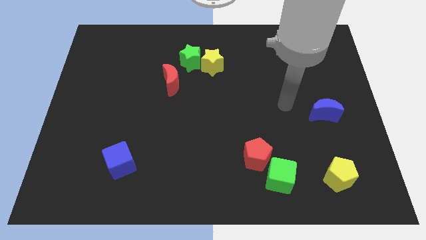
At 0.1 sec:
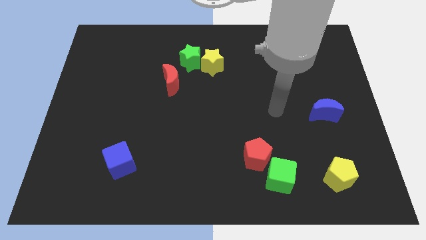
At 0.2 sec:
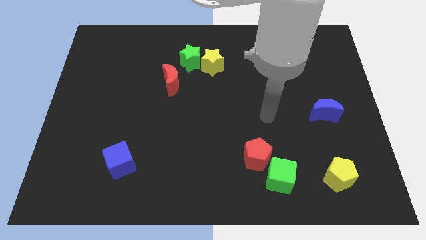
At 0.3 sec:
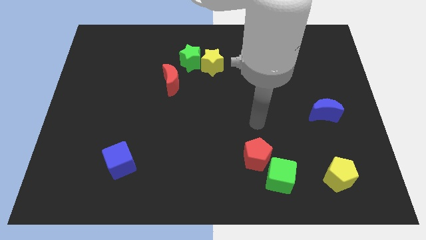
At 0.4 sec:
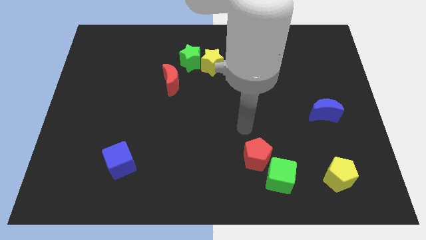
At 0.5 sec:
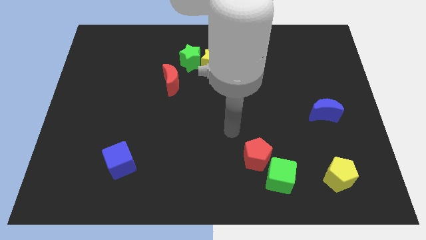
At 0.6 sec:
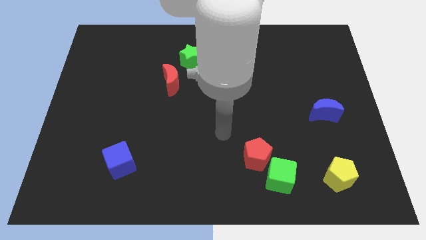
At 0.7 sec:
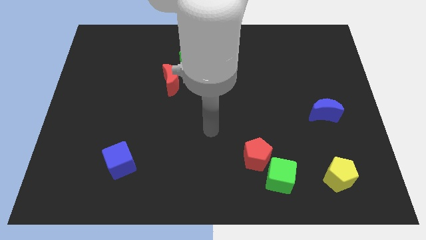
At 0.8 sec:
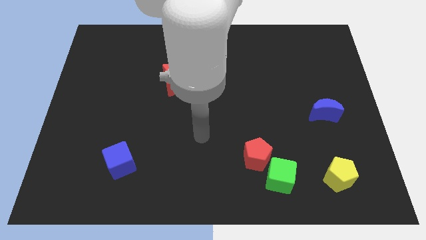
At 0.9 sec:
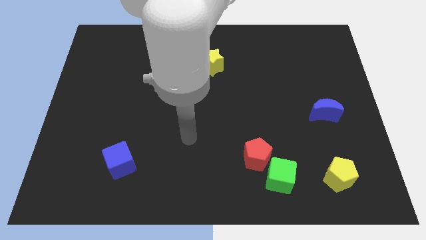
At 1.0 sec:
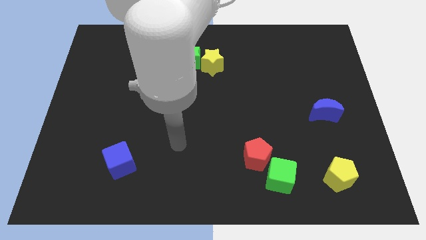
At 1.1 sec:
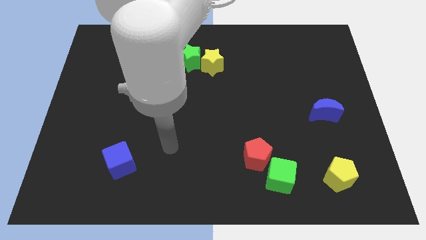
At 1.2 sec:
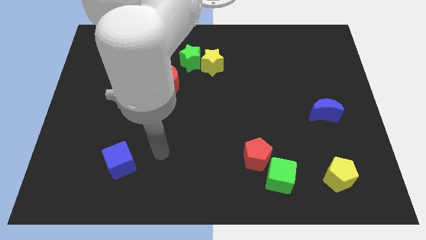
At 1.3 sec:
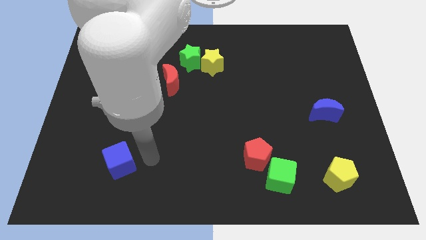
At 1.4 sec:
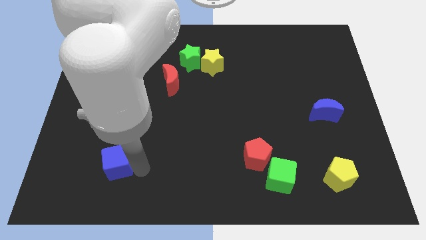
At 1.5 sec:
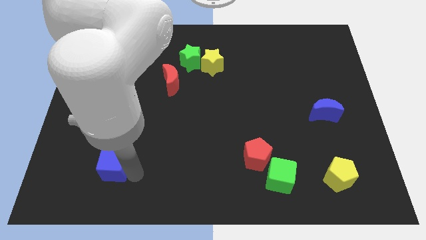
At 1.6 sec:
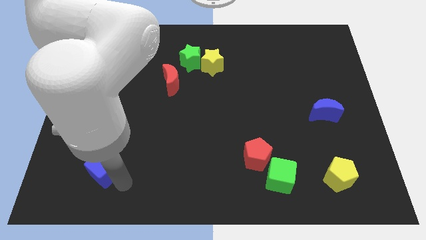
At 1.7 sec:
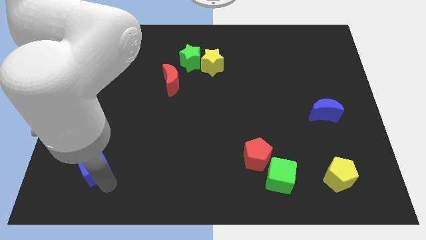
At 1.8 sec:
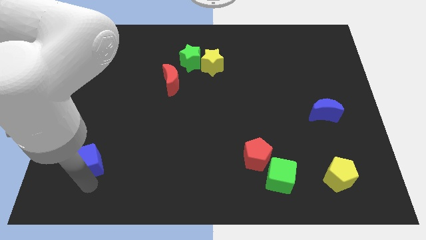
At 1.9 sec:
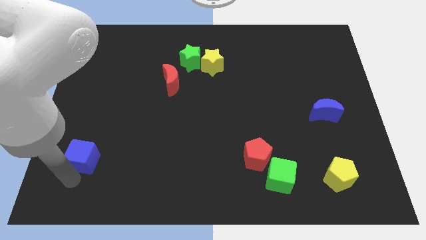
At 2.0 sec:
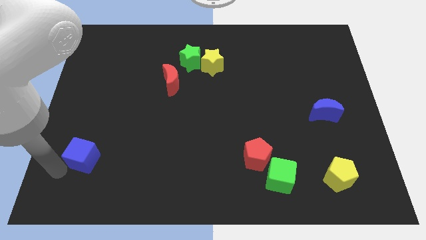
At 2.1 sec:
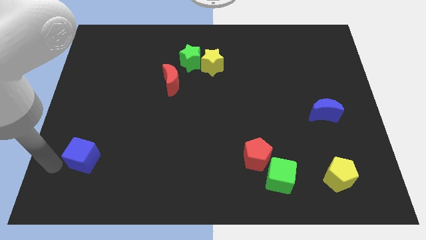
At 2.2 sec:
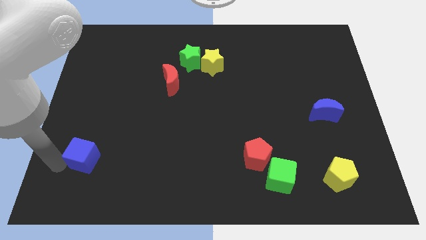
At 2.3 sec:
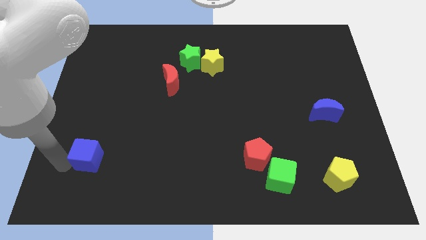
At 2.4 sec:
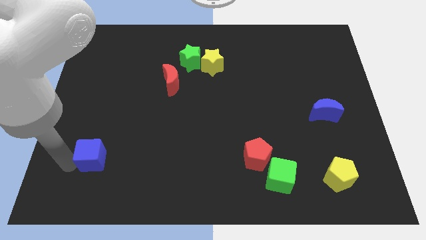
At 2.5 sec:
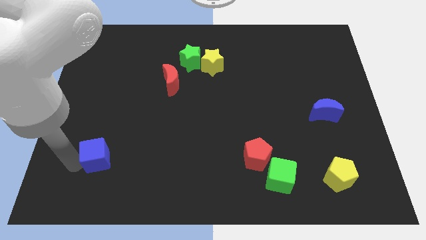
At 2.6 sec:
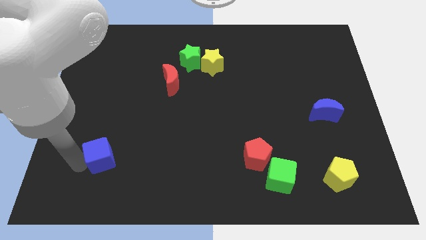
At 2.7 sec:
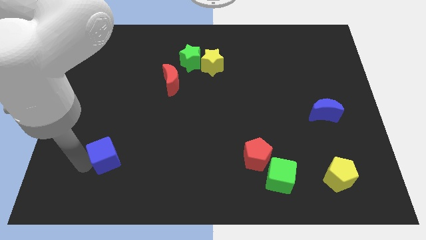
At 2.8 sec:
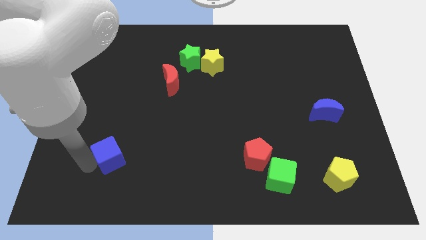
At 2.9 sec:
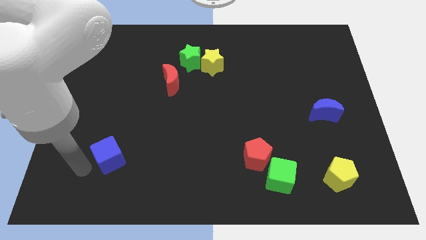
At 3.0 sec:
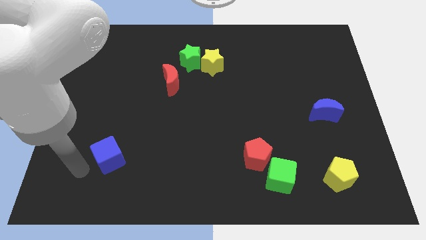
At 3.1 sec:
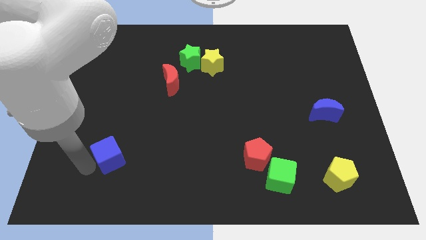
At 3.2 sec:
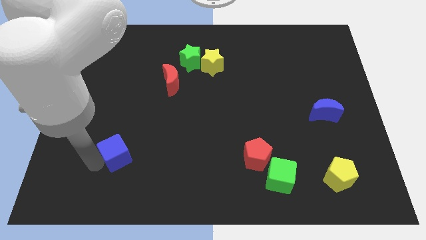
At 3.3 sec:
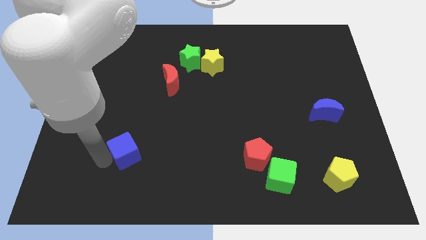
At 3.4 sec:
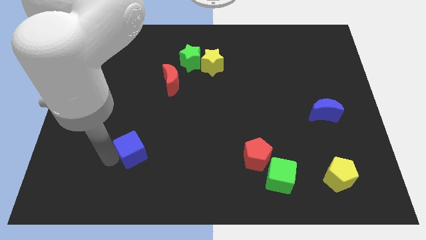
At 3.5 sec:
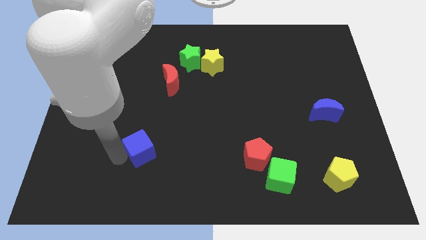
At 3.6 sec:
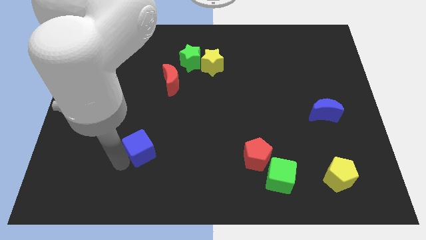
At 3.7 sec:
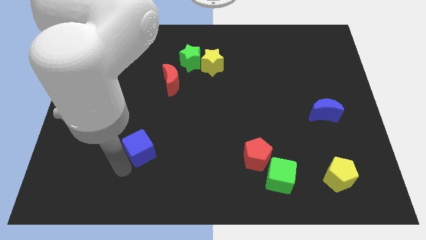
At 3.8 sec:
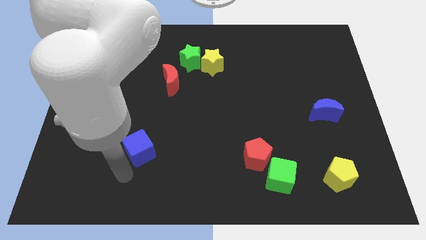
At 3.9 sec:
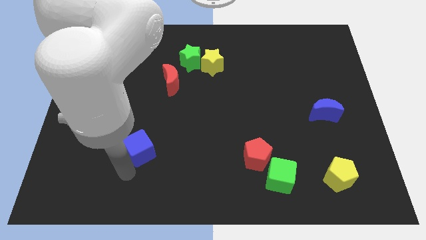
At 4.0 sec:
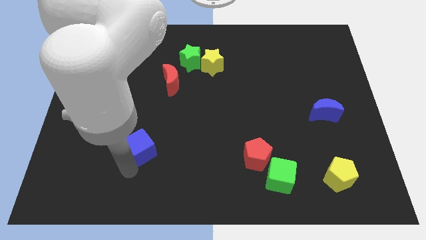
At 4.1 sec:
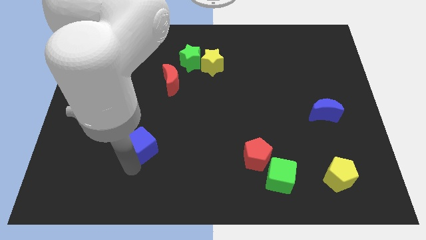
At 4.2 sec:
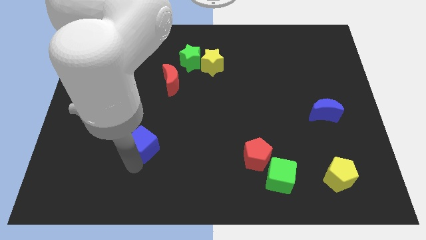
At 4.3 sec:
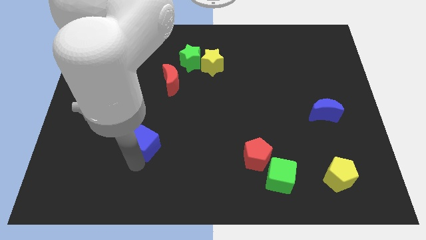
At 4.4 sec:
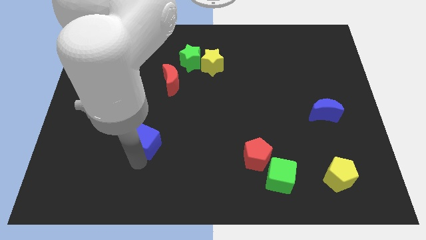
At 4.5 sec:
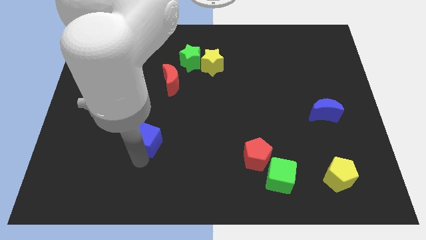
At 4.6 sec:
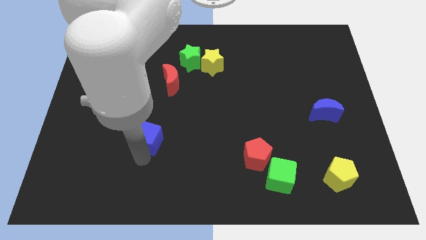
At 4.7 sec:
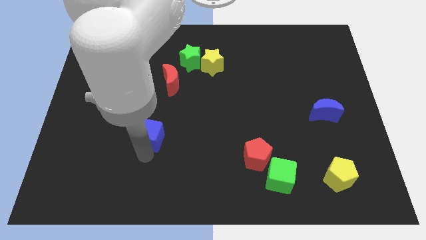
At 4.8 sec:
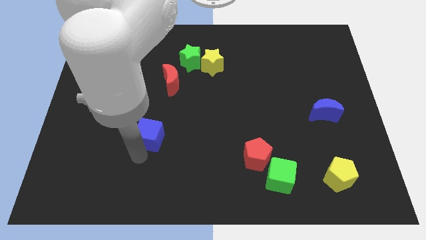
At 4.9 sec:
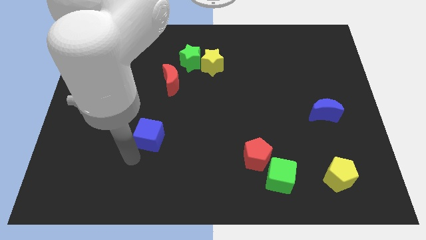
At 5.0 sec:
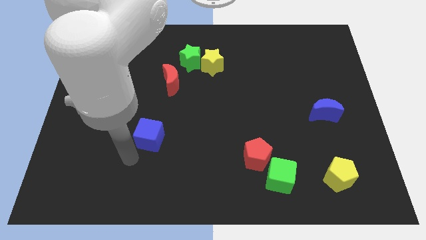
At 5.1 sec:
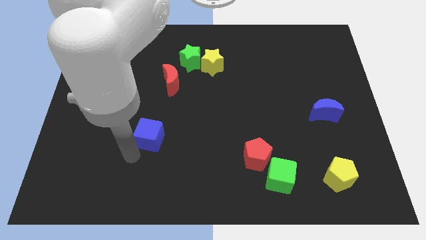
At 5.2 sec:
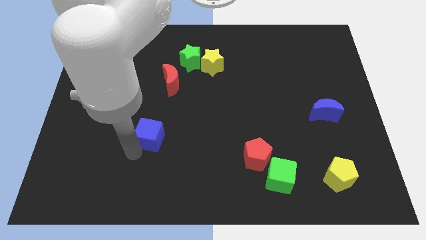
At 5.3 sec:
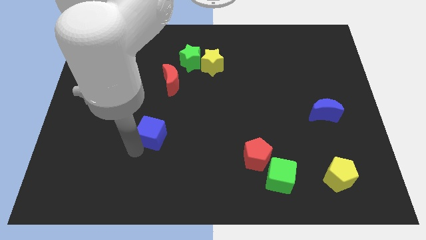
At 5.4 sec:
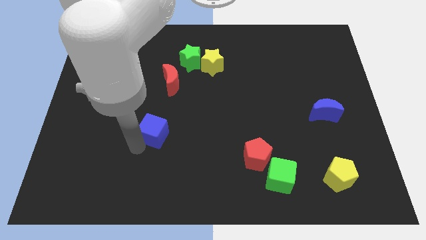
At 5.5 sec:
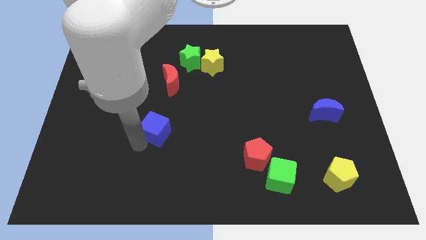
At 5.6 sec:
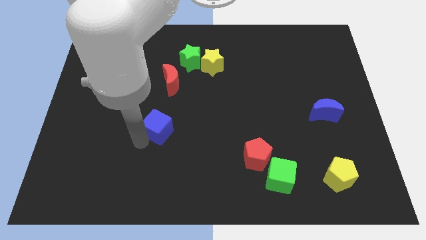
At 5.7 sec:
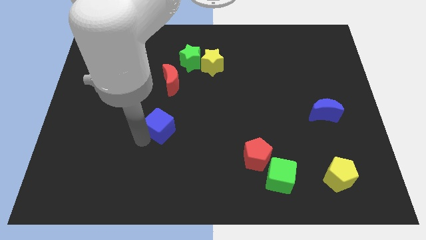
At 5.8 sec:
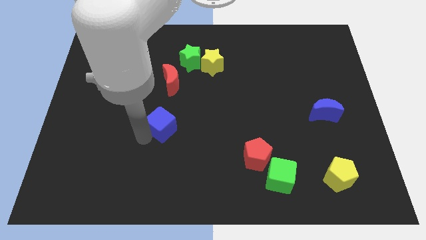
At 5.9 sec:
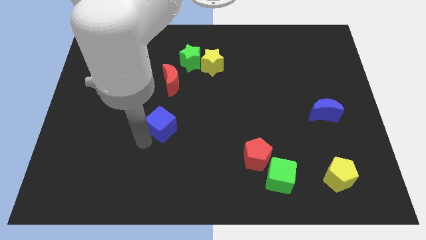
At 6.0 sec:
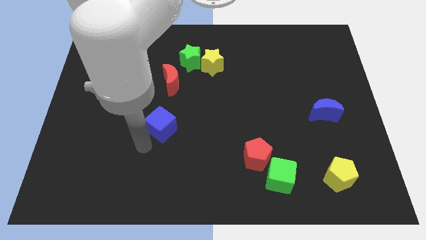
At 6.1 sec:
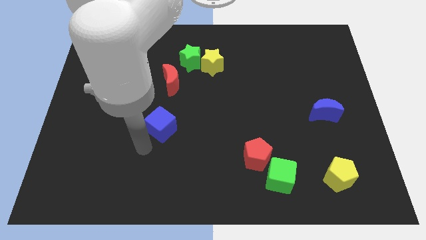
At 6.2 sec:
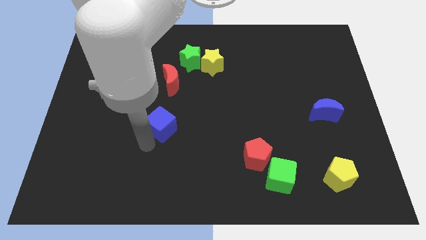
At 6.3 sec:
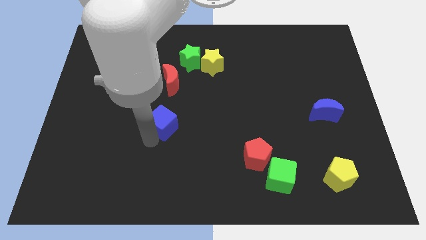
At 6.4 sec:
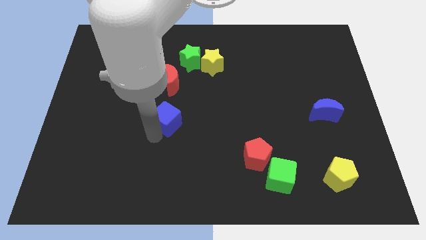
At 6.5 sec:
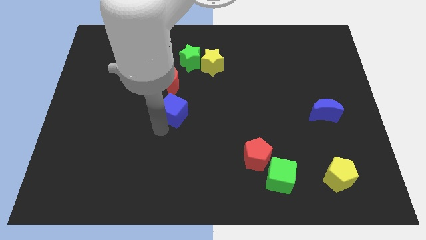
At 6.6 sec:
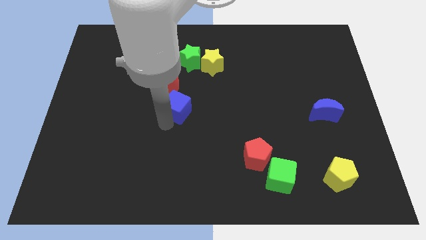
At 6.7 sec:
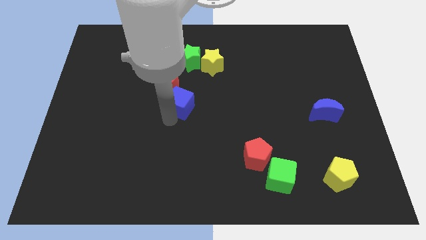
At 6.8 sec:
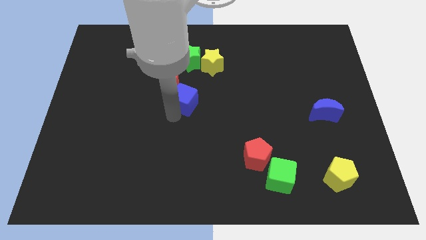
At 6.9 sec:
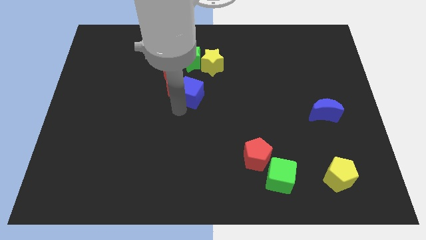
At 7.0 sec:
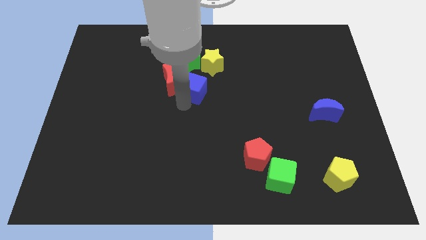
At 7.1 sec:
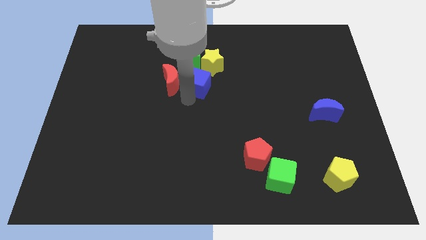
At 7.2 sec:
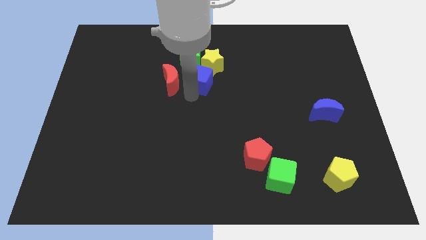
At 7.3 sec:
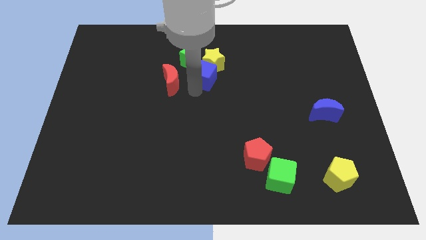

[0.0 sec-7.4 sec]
slide the blue cube to the yellow star
